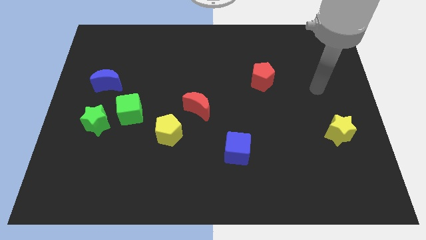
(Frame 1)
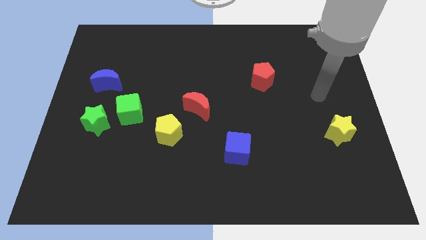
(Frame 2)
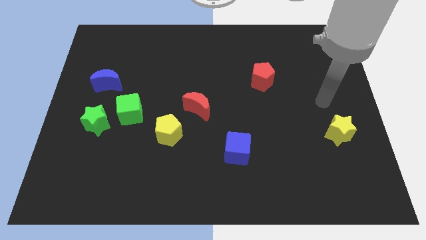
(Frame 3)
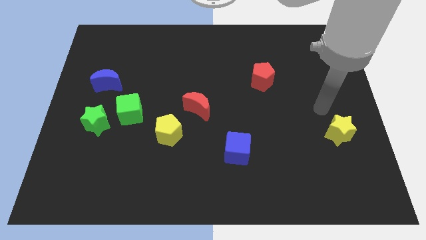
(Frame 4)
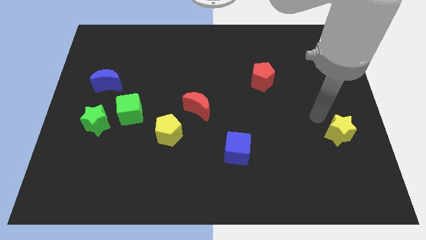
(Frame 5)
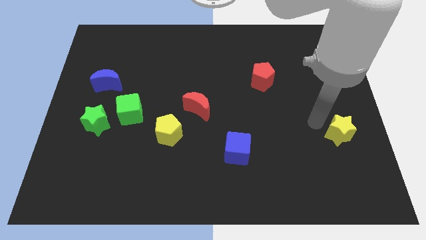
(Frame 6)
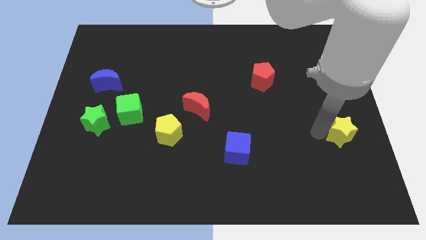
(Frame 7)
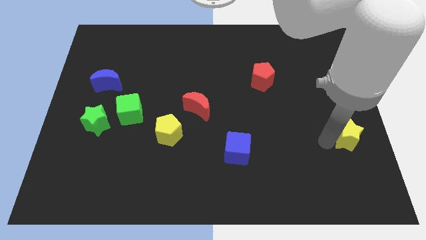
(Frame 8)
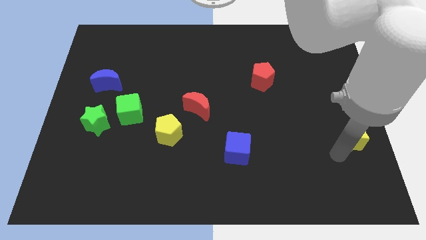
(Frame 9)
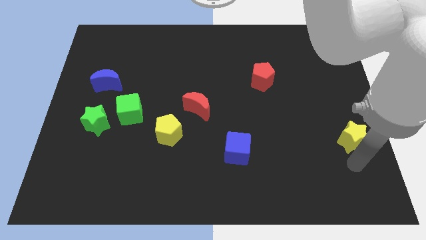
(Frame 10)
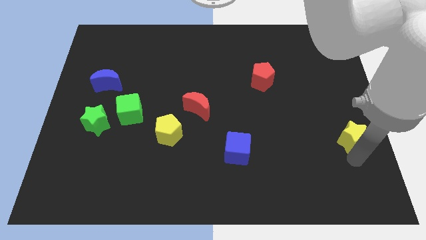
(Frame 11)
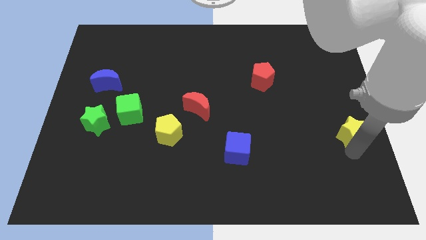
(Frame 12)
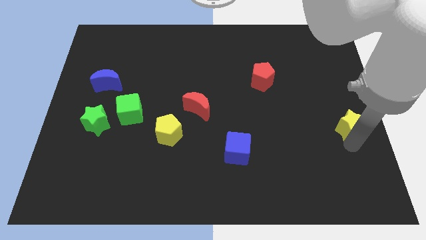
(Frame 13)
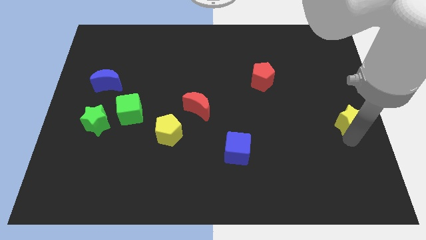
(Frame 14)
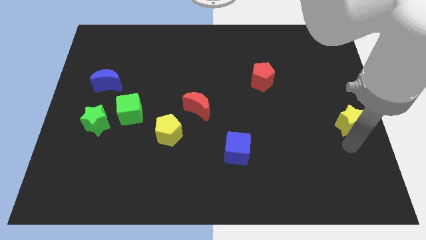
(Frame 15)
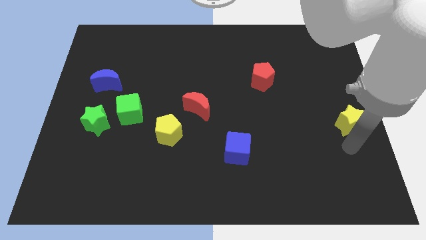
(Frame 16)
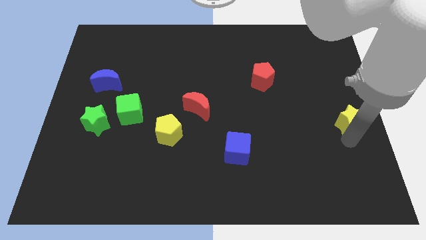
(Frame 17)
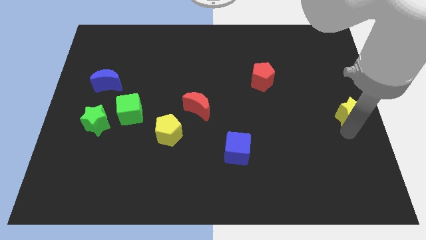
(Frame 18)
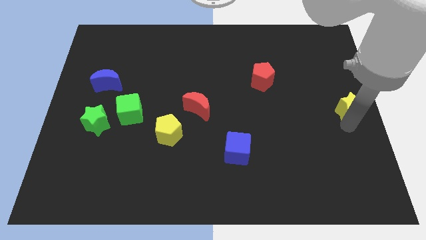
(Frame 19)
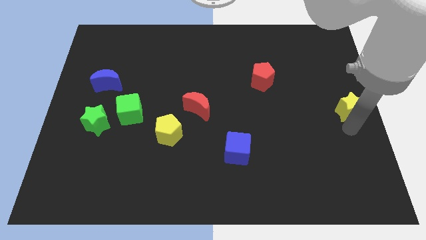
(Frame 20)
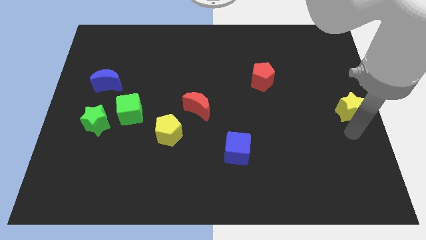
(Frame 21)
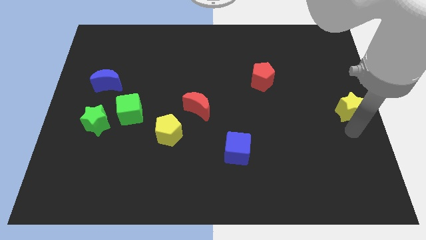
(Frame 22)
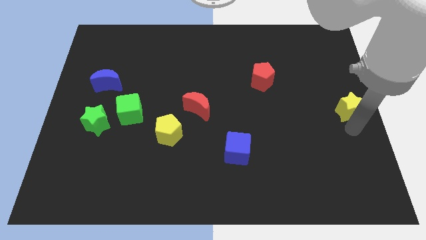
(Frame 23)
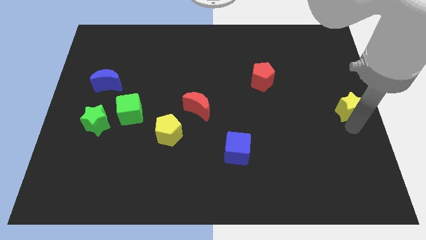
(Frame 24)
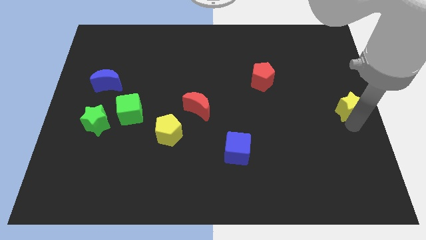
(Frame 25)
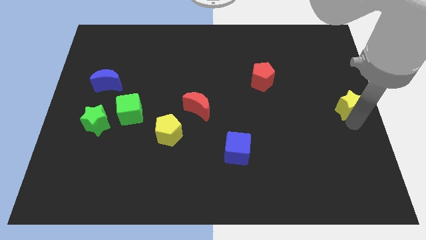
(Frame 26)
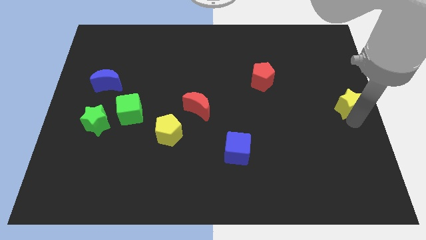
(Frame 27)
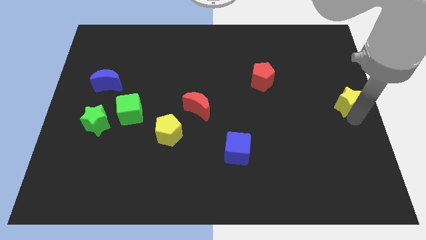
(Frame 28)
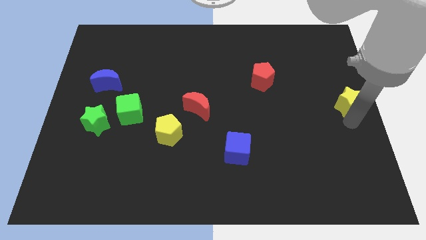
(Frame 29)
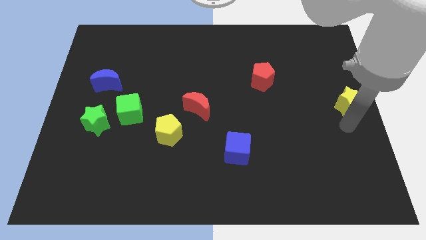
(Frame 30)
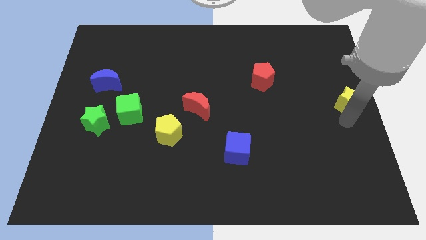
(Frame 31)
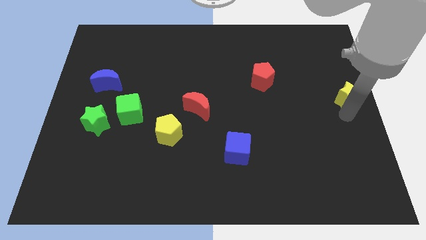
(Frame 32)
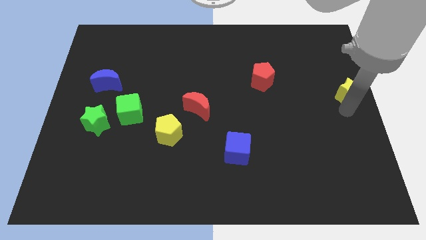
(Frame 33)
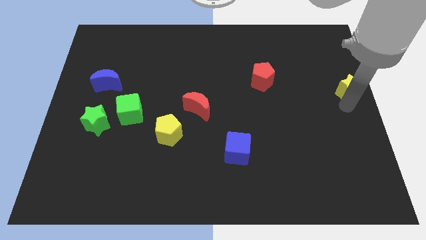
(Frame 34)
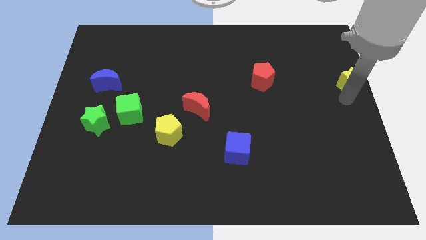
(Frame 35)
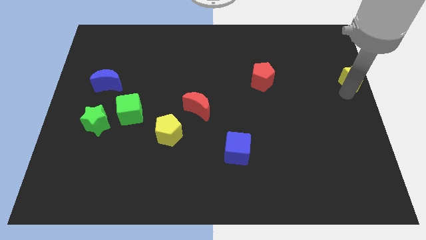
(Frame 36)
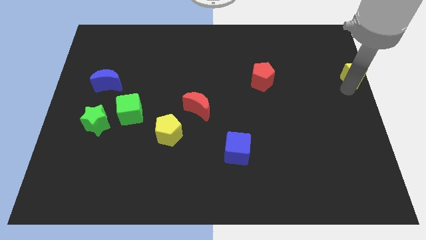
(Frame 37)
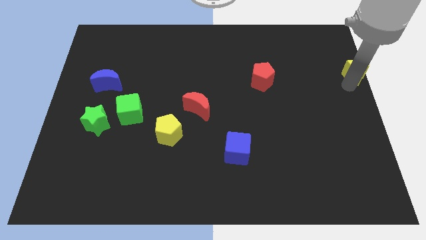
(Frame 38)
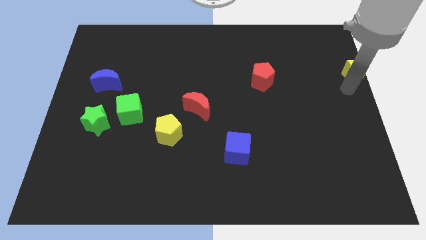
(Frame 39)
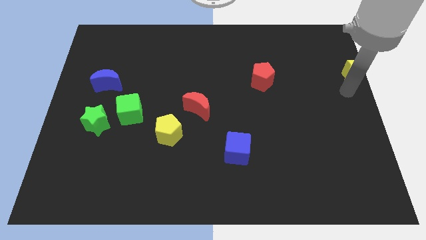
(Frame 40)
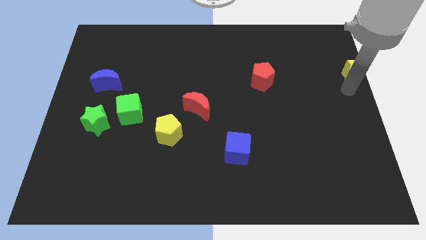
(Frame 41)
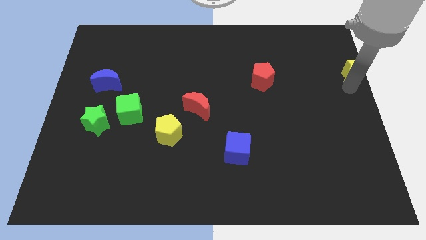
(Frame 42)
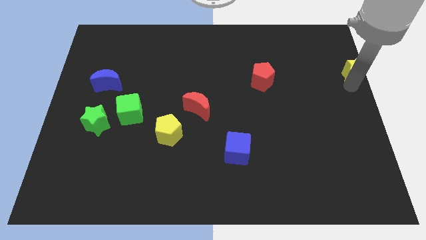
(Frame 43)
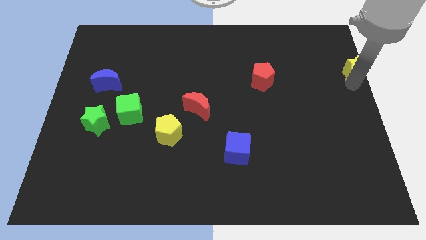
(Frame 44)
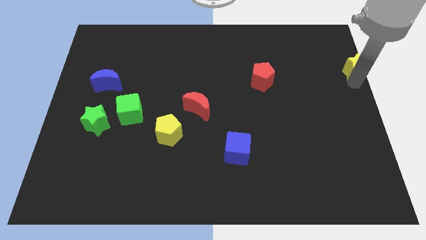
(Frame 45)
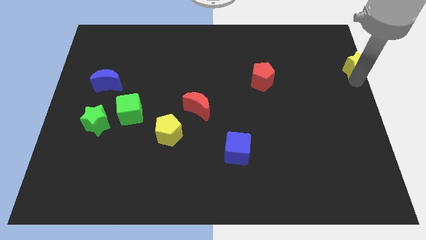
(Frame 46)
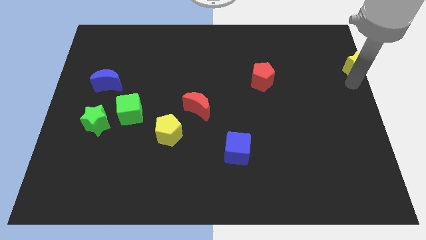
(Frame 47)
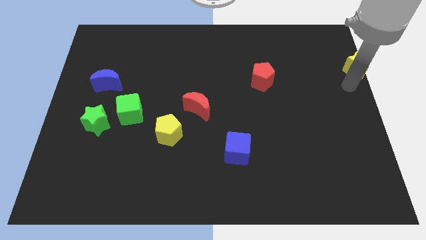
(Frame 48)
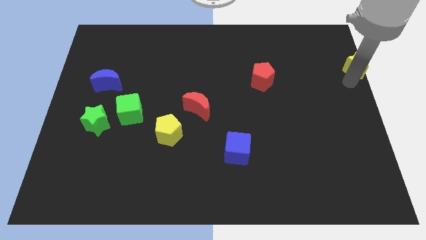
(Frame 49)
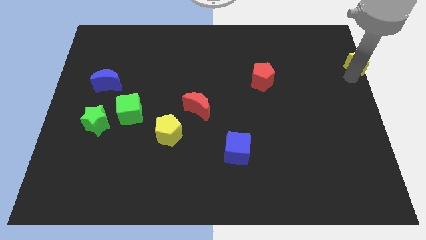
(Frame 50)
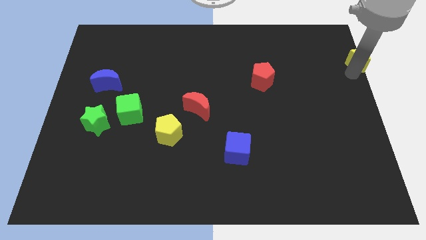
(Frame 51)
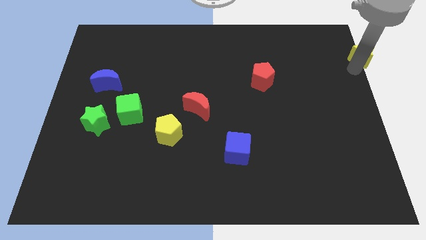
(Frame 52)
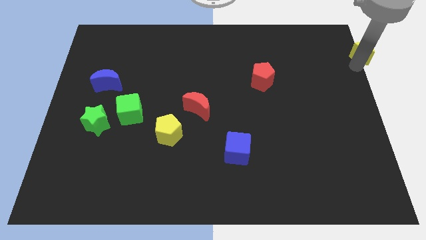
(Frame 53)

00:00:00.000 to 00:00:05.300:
move the yellow star to the top right corner

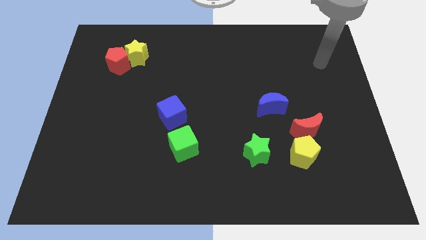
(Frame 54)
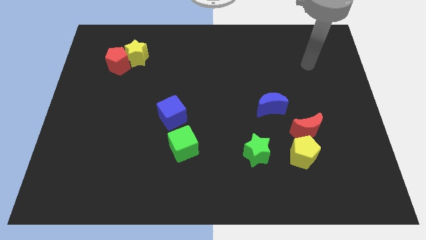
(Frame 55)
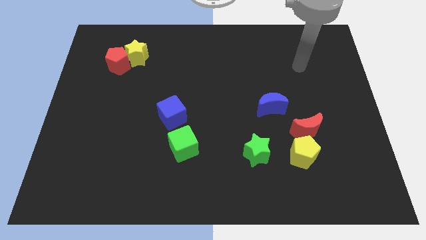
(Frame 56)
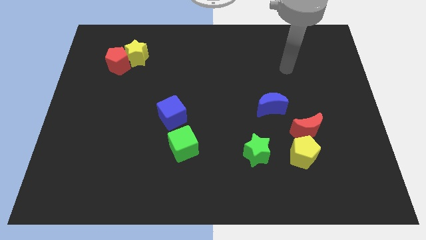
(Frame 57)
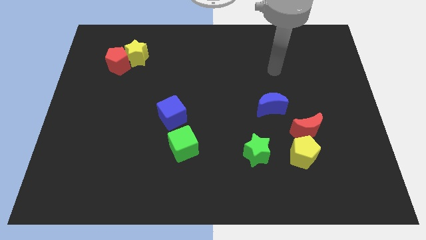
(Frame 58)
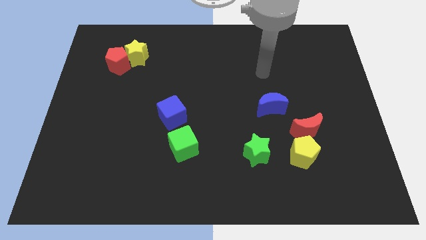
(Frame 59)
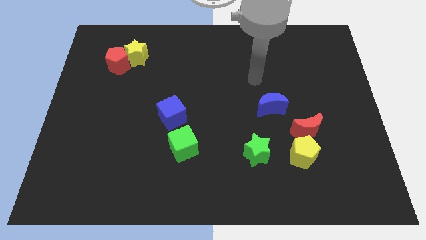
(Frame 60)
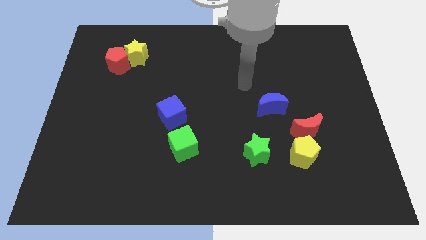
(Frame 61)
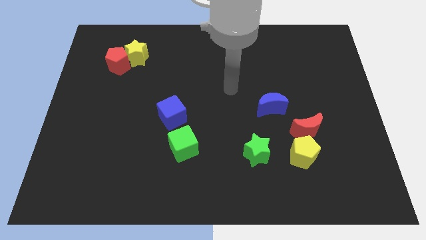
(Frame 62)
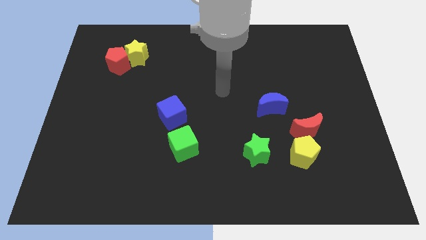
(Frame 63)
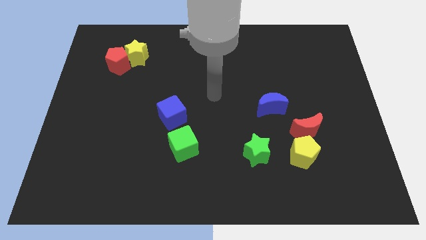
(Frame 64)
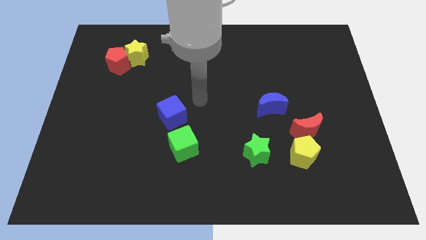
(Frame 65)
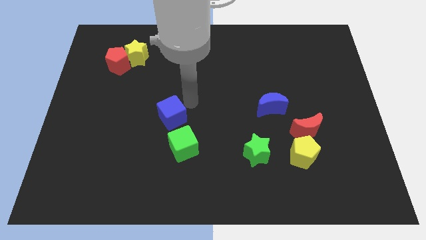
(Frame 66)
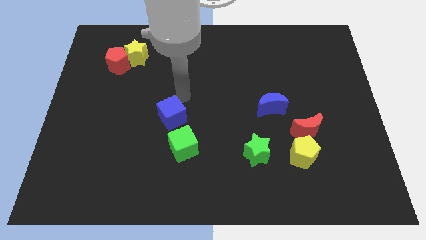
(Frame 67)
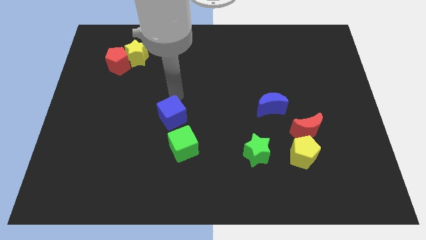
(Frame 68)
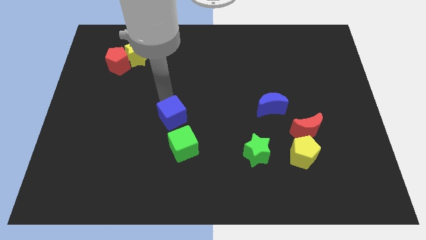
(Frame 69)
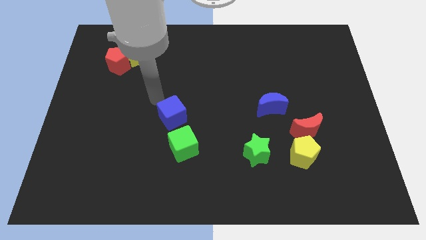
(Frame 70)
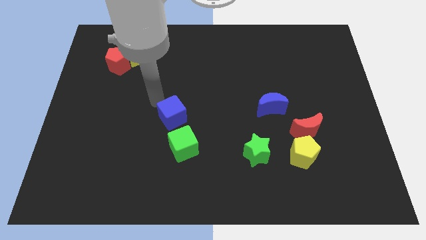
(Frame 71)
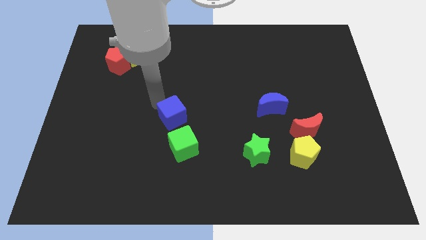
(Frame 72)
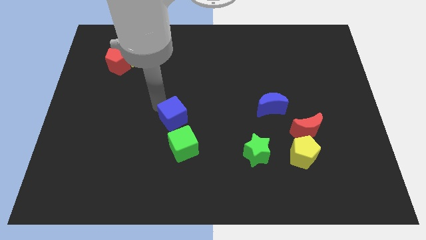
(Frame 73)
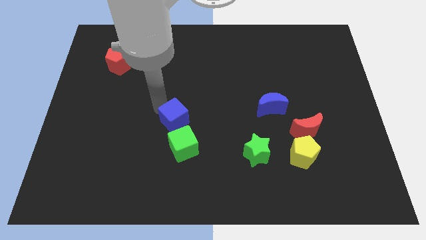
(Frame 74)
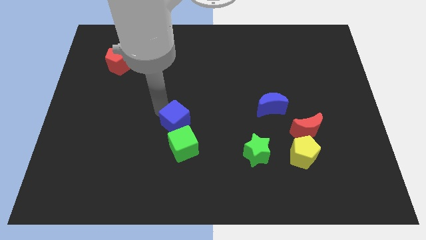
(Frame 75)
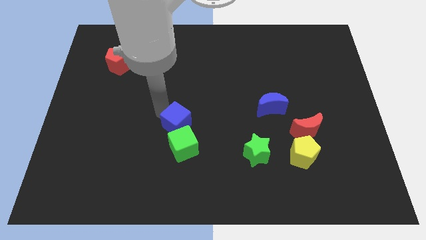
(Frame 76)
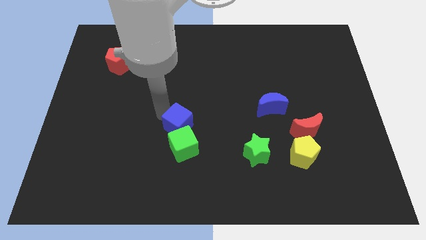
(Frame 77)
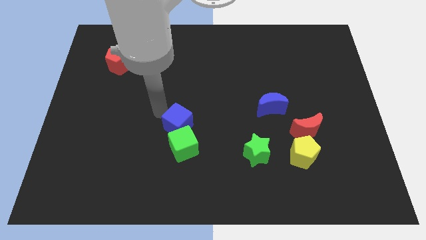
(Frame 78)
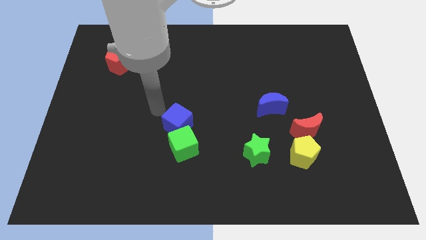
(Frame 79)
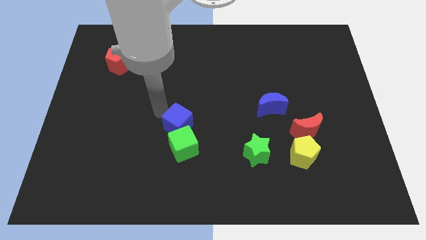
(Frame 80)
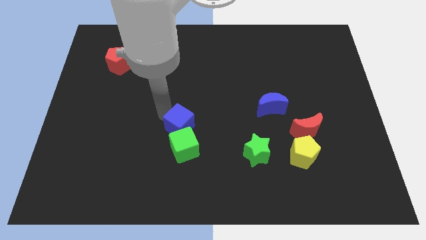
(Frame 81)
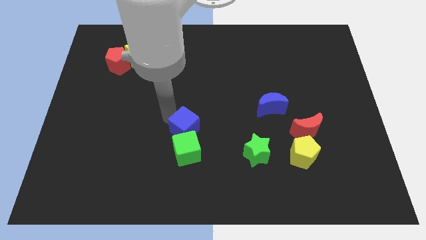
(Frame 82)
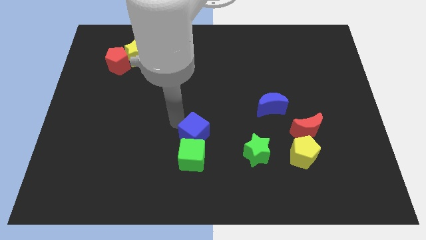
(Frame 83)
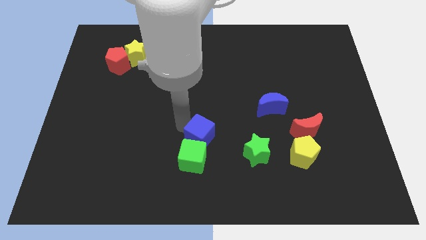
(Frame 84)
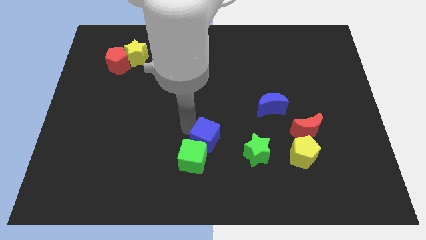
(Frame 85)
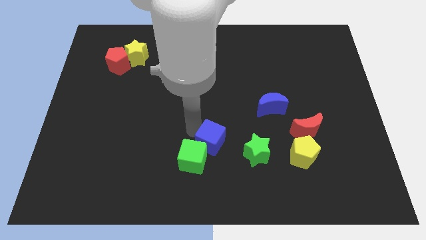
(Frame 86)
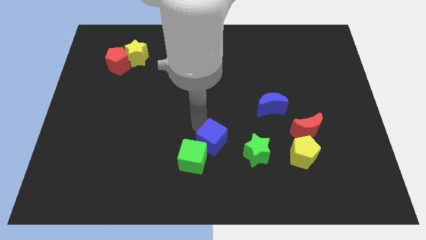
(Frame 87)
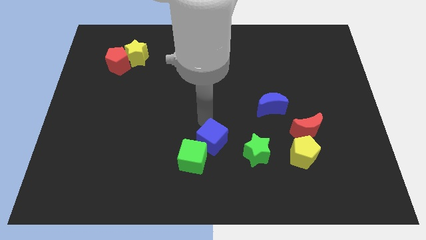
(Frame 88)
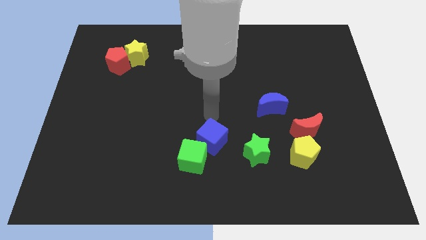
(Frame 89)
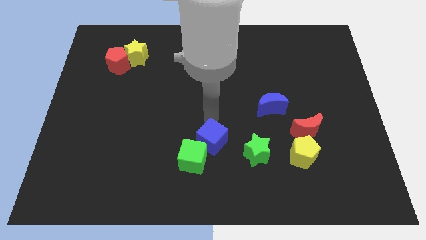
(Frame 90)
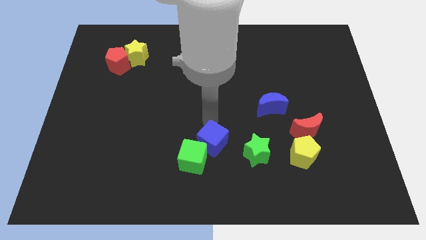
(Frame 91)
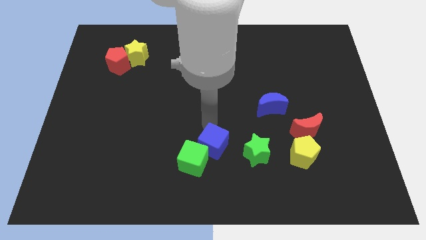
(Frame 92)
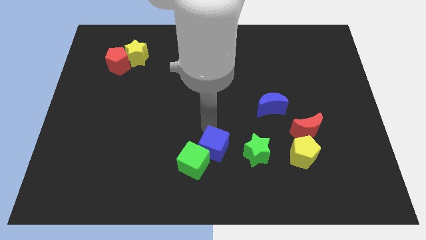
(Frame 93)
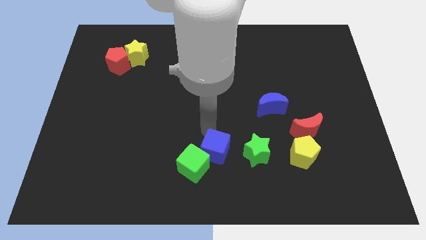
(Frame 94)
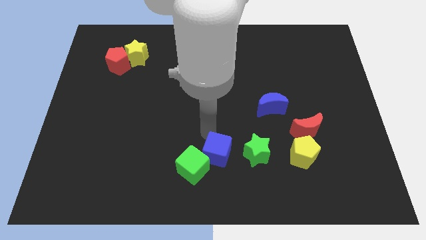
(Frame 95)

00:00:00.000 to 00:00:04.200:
slide the blue cube to the bottom side
